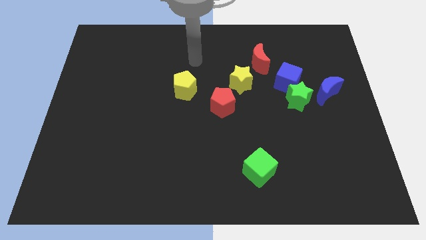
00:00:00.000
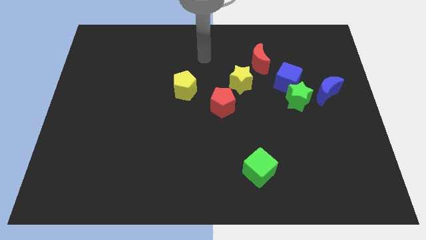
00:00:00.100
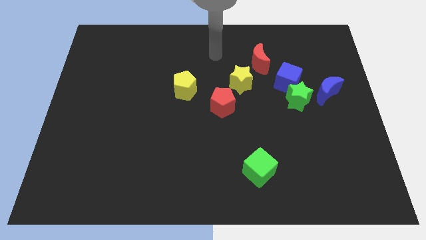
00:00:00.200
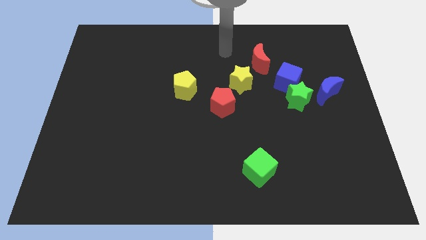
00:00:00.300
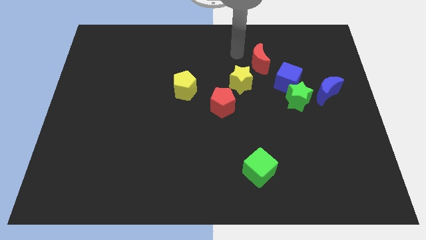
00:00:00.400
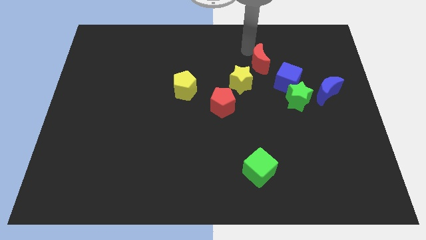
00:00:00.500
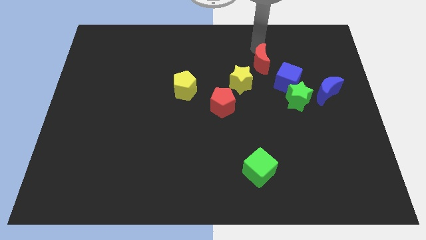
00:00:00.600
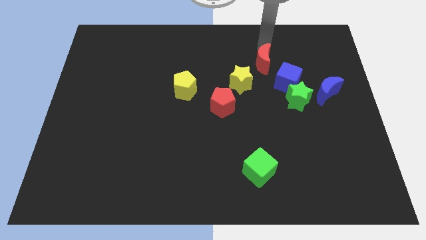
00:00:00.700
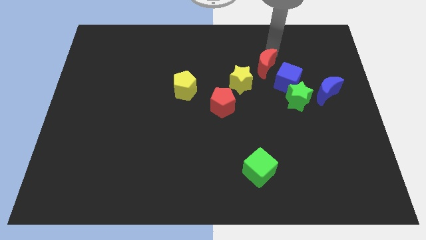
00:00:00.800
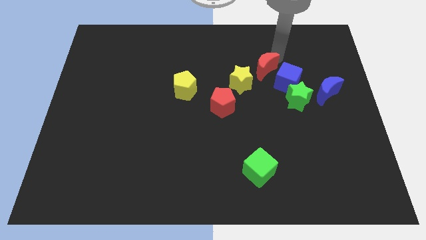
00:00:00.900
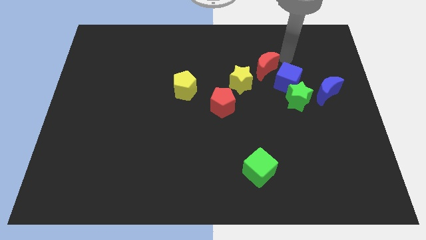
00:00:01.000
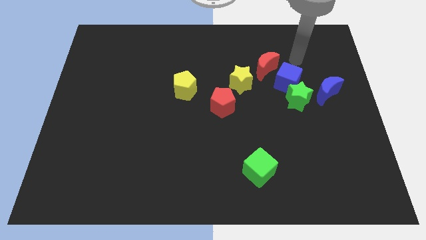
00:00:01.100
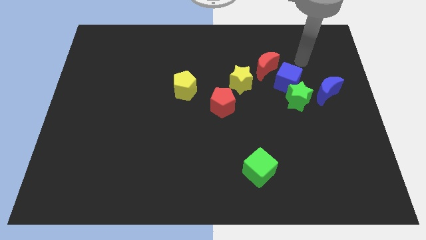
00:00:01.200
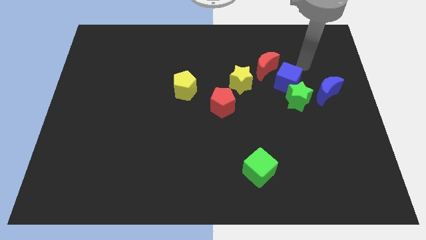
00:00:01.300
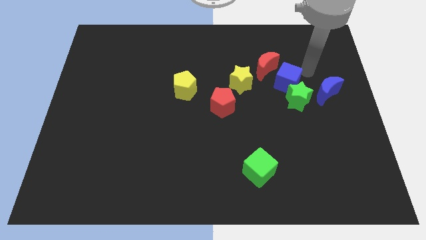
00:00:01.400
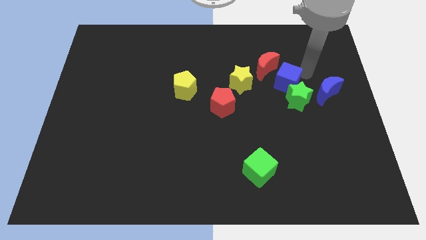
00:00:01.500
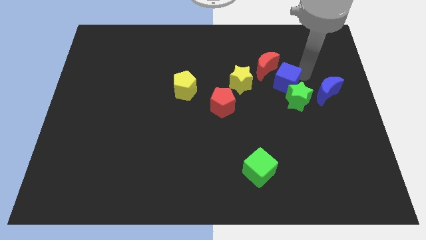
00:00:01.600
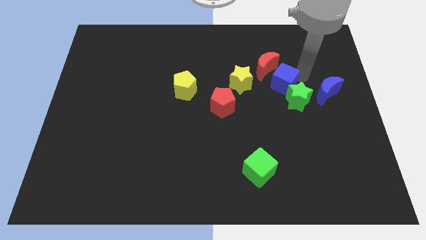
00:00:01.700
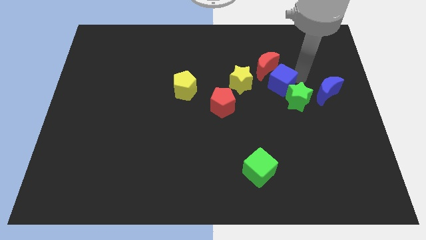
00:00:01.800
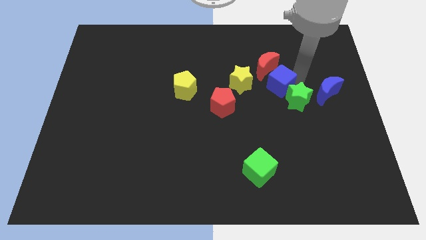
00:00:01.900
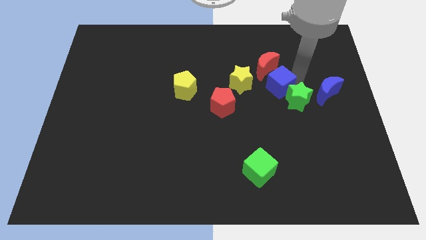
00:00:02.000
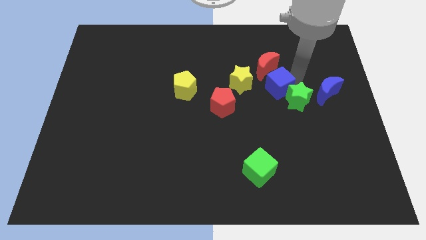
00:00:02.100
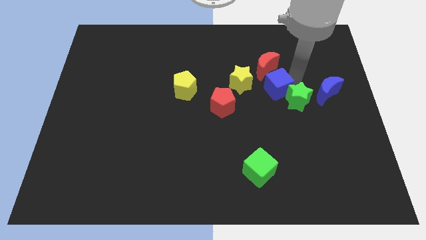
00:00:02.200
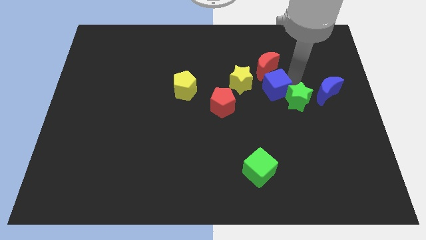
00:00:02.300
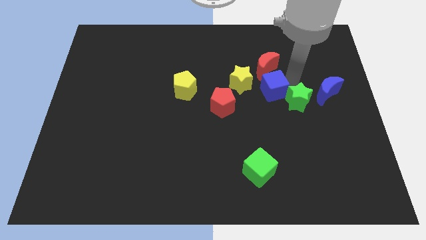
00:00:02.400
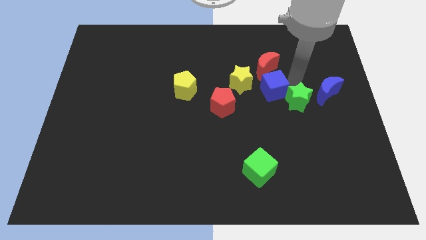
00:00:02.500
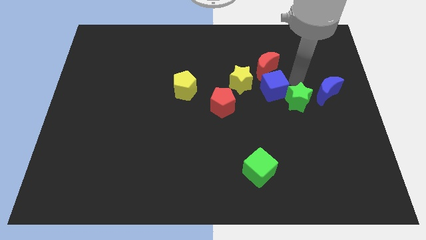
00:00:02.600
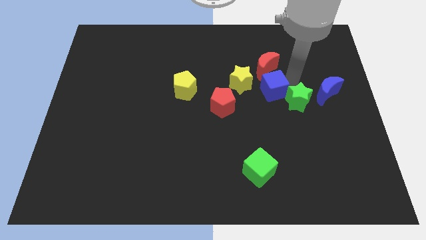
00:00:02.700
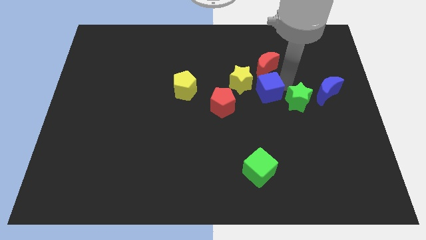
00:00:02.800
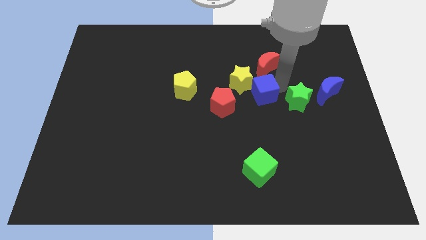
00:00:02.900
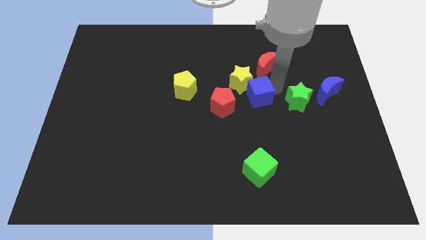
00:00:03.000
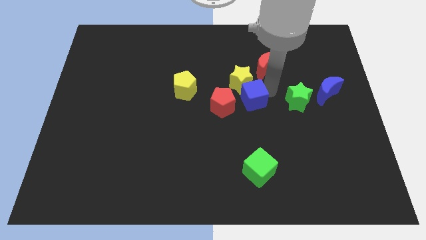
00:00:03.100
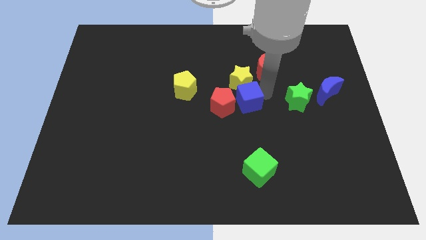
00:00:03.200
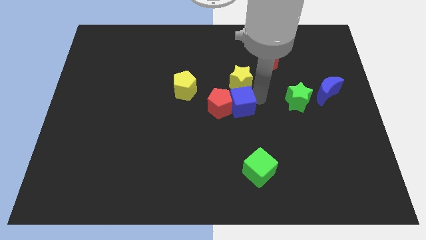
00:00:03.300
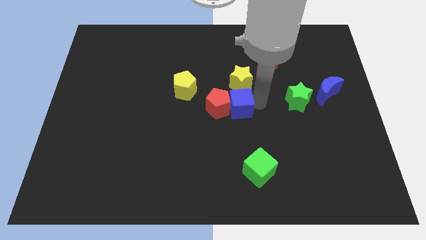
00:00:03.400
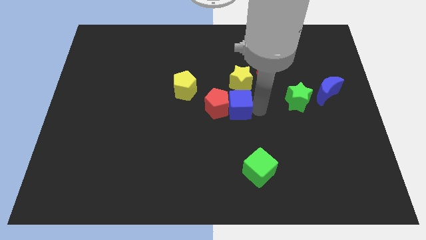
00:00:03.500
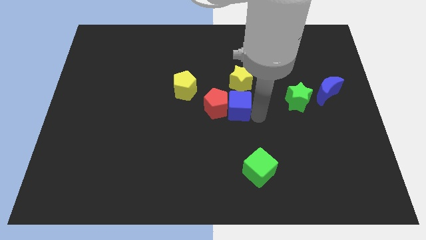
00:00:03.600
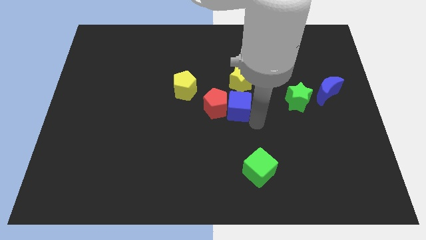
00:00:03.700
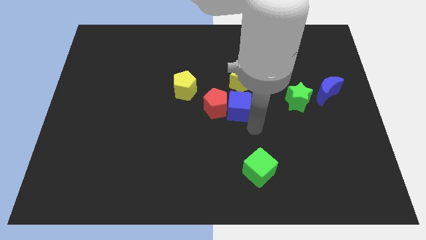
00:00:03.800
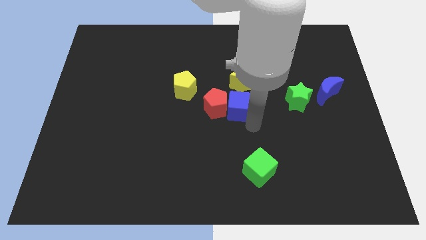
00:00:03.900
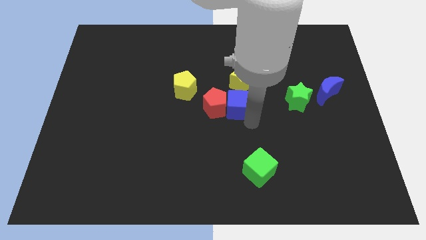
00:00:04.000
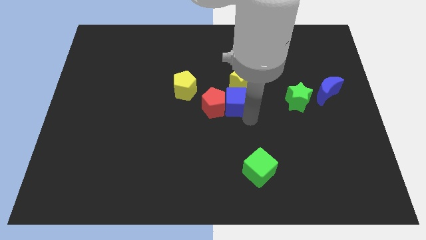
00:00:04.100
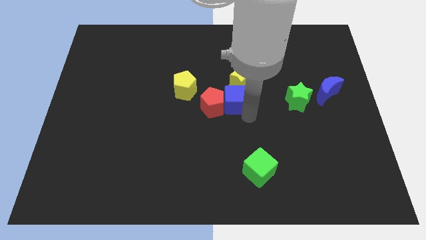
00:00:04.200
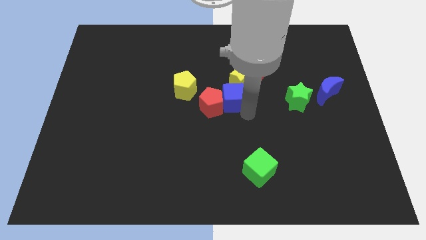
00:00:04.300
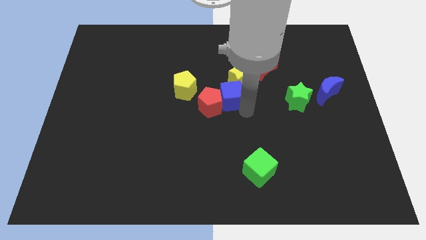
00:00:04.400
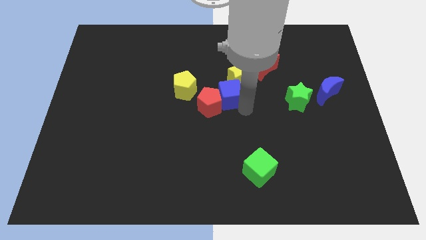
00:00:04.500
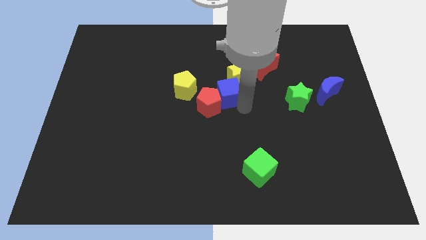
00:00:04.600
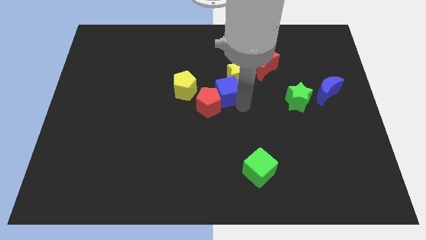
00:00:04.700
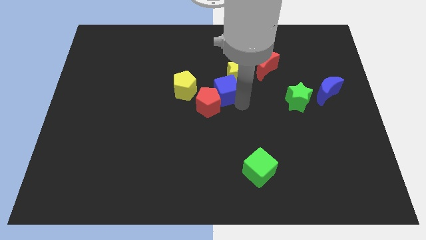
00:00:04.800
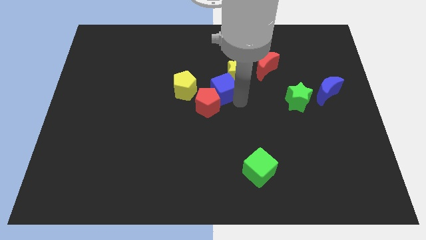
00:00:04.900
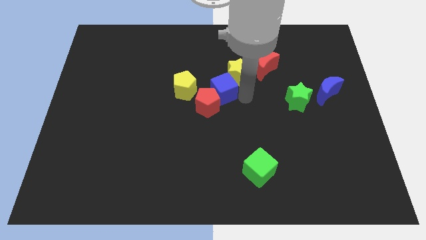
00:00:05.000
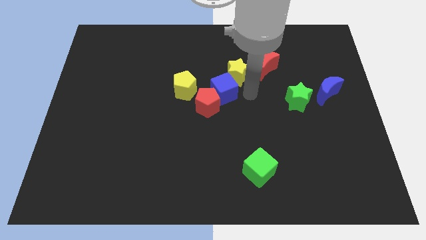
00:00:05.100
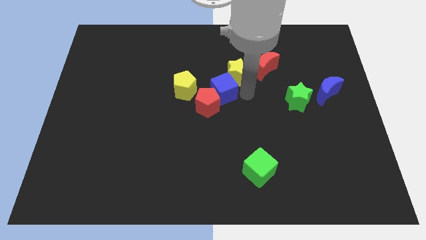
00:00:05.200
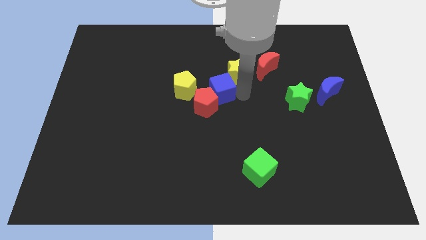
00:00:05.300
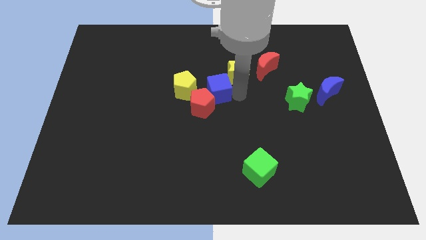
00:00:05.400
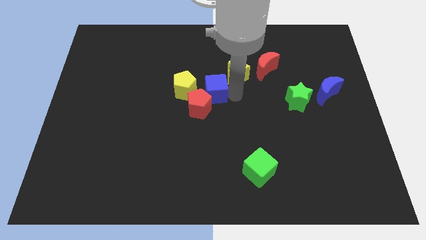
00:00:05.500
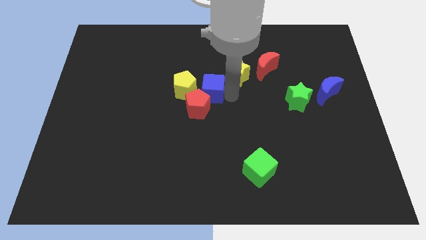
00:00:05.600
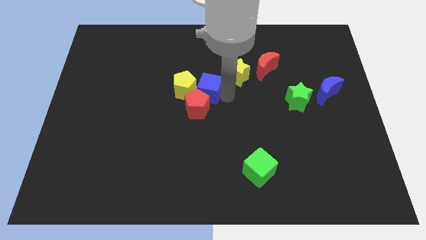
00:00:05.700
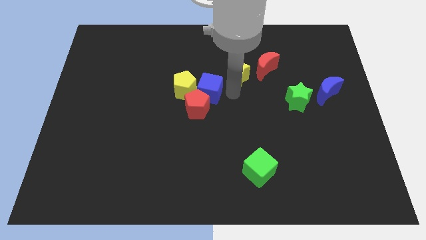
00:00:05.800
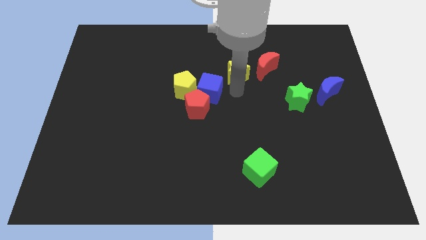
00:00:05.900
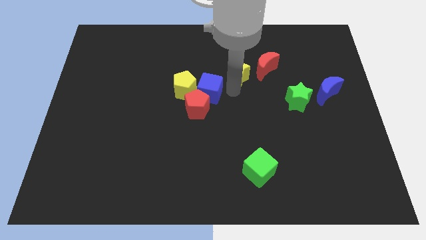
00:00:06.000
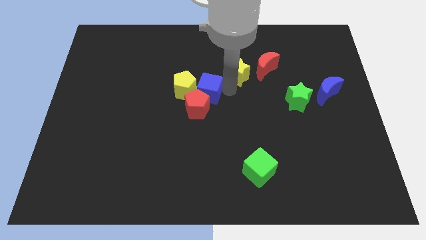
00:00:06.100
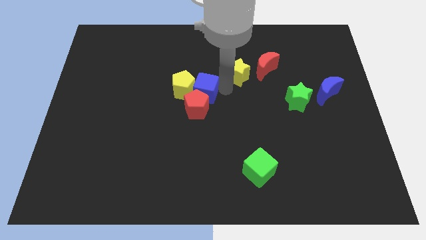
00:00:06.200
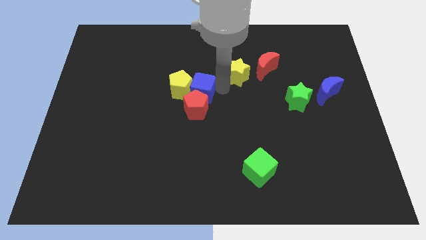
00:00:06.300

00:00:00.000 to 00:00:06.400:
slide the blue cube to the top left of the red pentagon

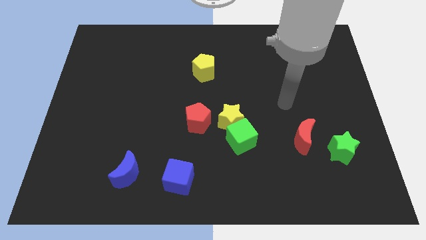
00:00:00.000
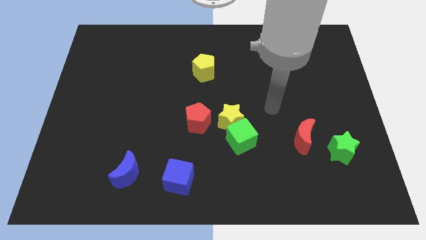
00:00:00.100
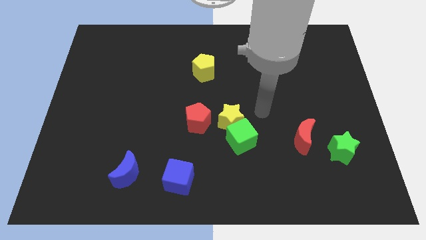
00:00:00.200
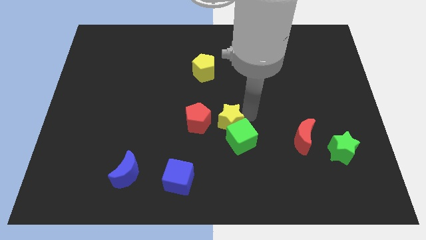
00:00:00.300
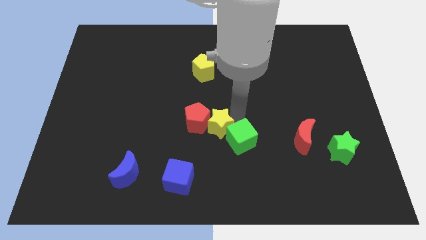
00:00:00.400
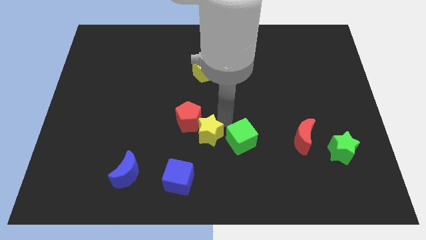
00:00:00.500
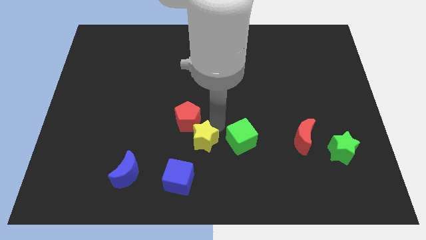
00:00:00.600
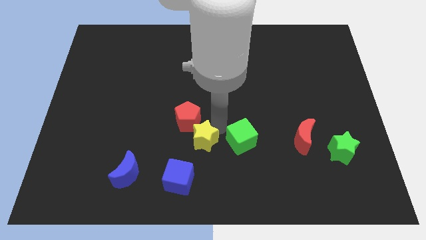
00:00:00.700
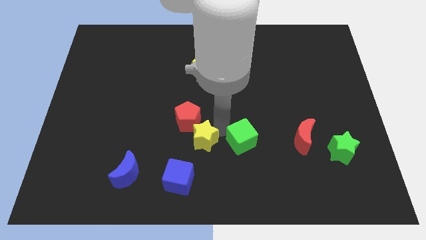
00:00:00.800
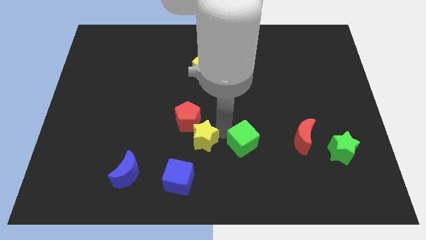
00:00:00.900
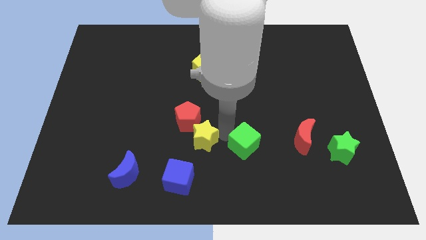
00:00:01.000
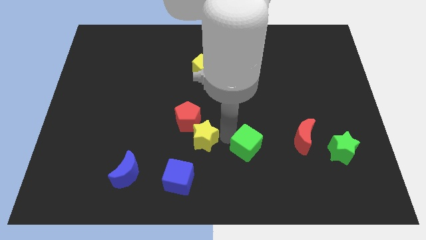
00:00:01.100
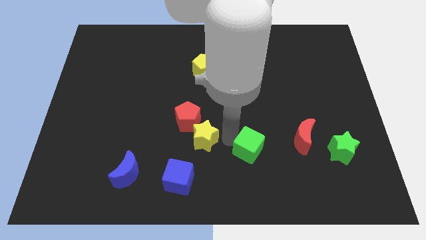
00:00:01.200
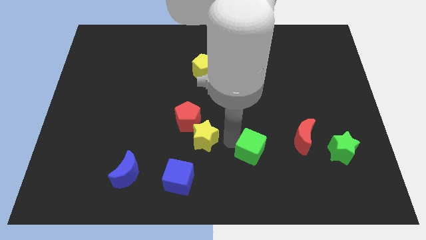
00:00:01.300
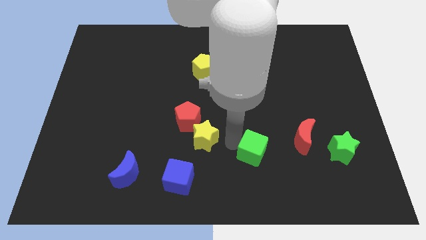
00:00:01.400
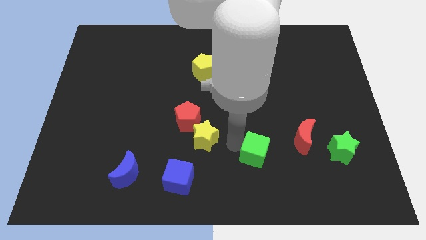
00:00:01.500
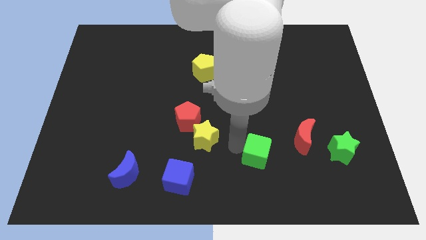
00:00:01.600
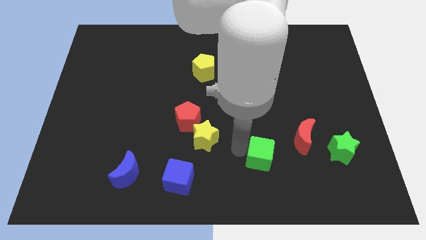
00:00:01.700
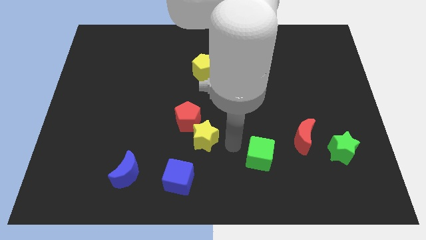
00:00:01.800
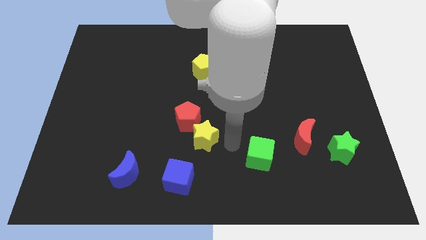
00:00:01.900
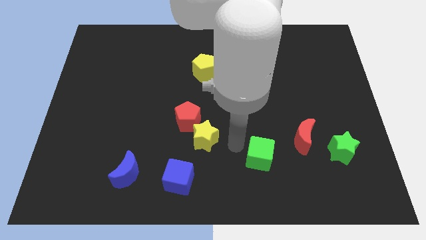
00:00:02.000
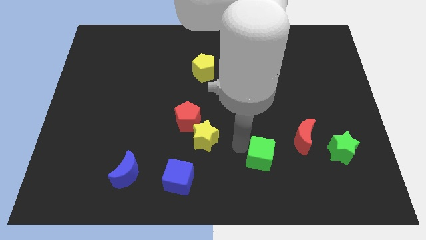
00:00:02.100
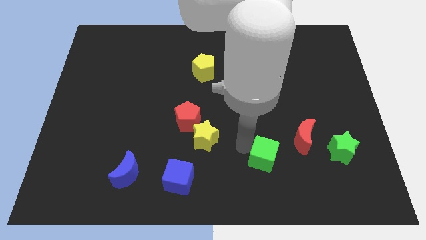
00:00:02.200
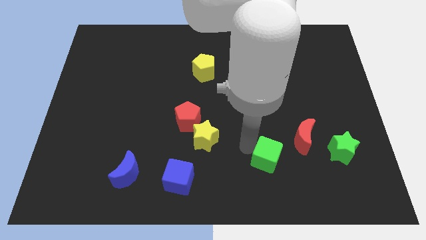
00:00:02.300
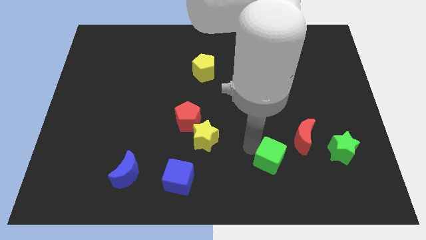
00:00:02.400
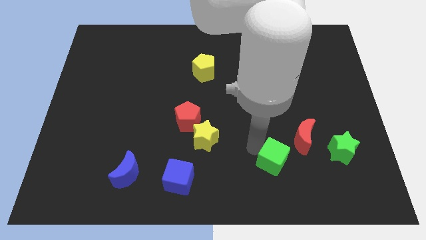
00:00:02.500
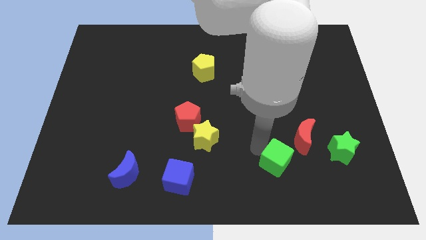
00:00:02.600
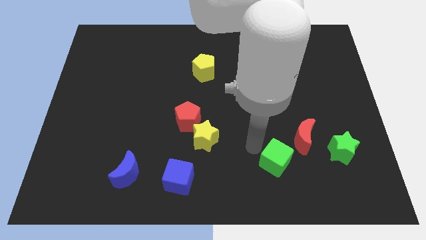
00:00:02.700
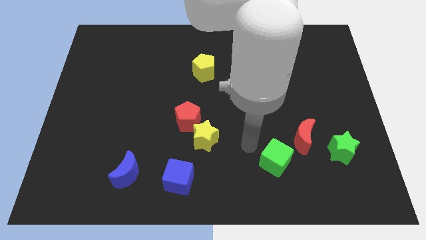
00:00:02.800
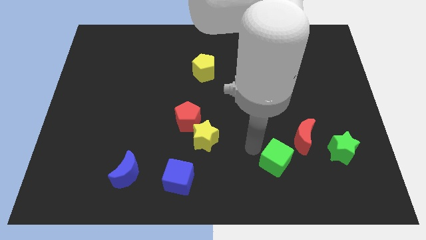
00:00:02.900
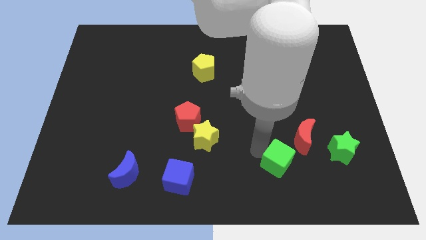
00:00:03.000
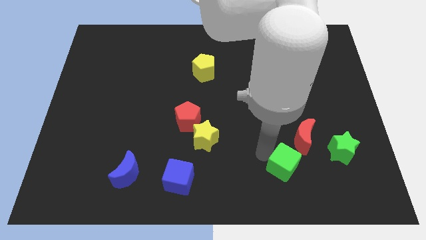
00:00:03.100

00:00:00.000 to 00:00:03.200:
slide the green cube below the red moon
